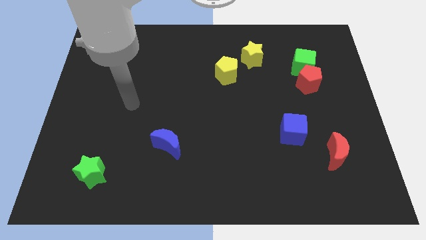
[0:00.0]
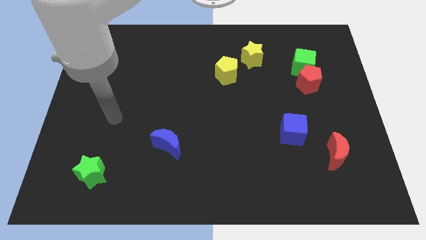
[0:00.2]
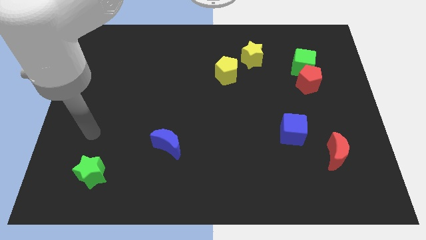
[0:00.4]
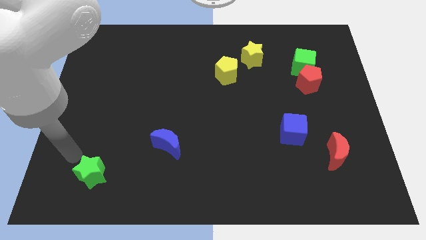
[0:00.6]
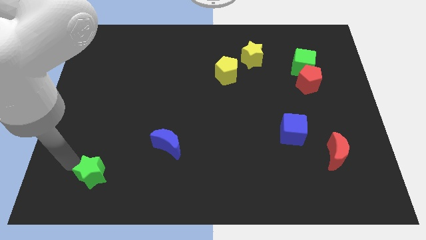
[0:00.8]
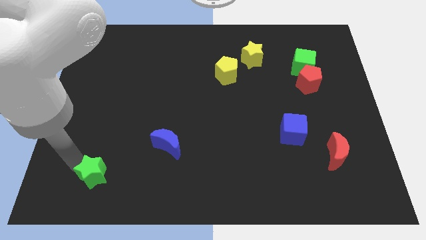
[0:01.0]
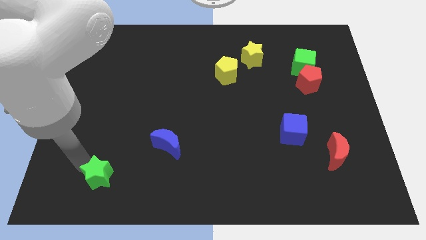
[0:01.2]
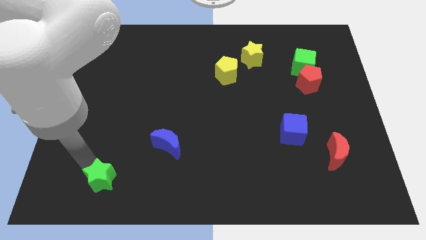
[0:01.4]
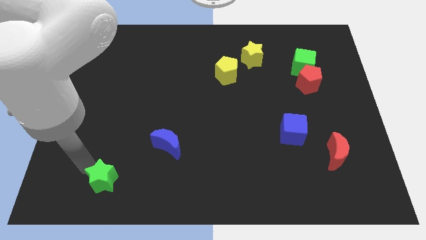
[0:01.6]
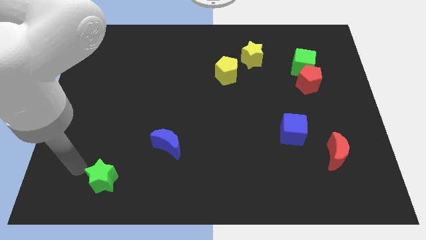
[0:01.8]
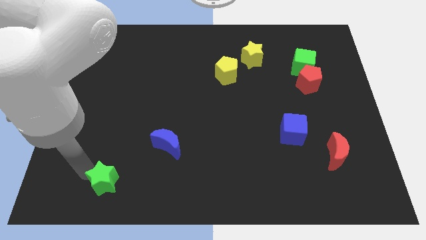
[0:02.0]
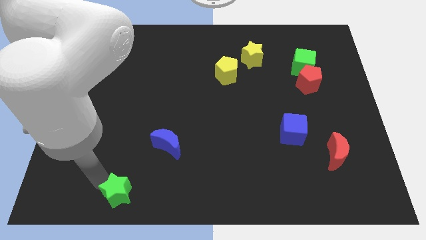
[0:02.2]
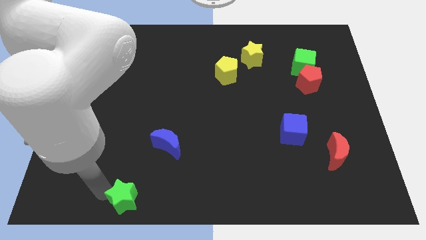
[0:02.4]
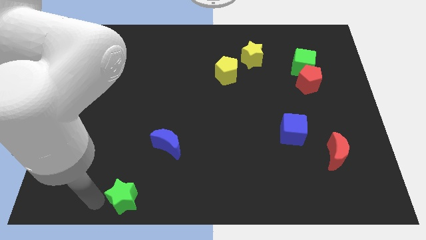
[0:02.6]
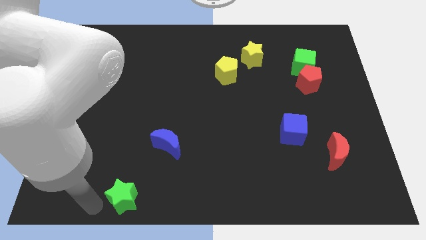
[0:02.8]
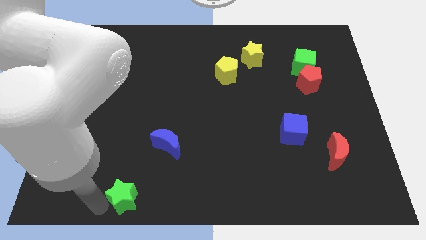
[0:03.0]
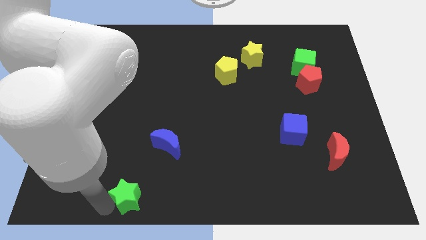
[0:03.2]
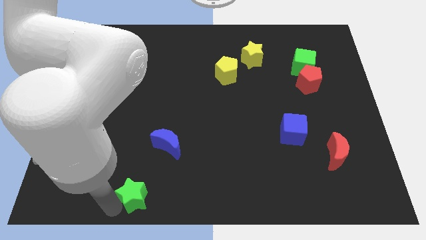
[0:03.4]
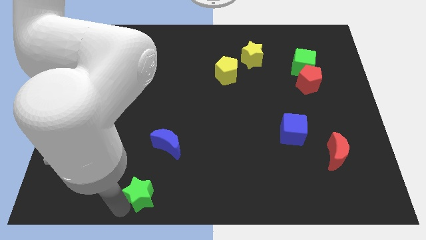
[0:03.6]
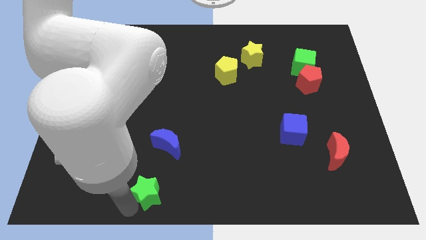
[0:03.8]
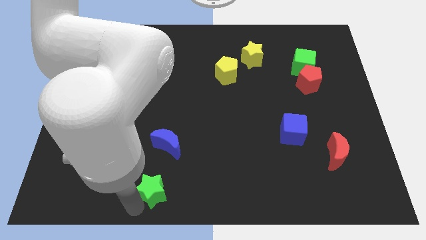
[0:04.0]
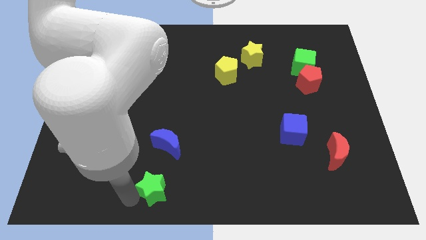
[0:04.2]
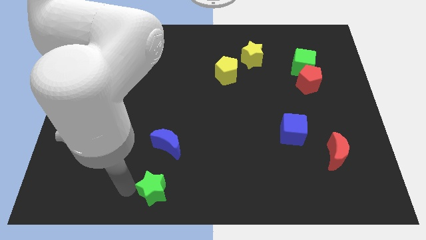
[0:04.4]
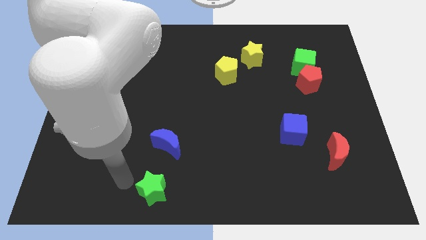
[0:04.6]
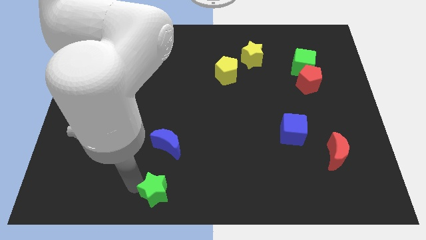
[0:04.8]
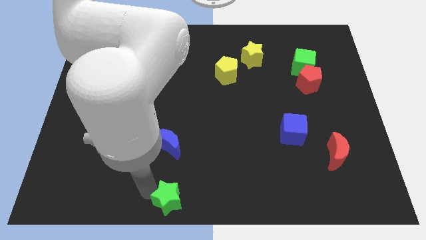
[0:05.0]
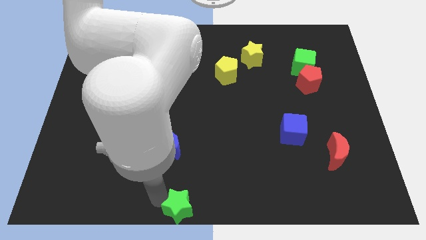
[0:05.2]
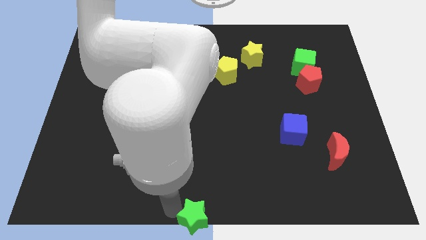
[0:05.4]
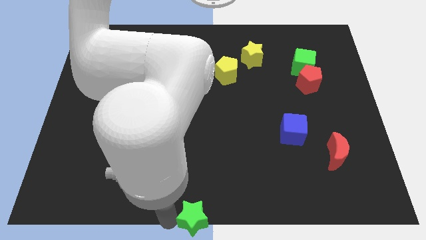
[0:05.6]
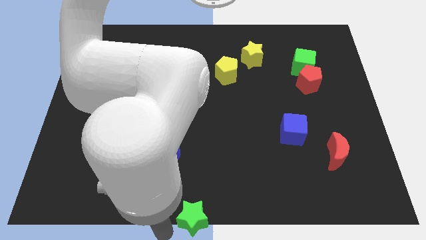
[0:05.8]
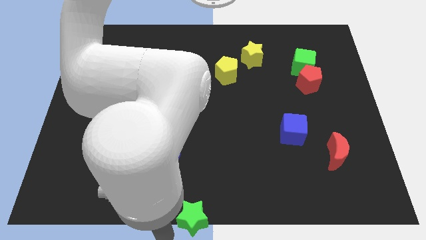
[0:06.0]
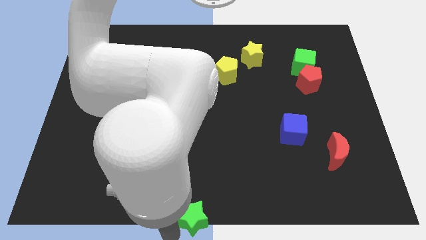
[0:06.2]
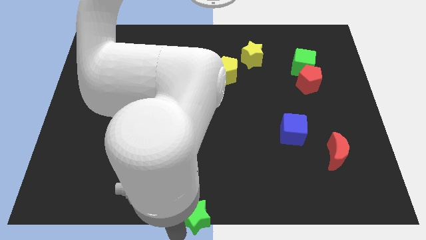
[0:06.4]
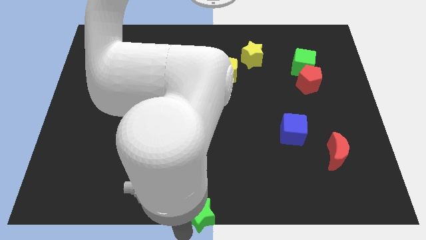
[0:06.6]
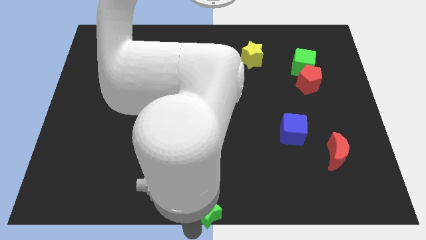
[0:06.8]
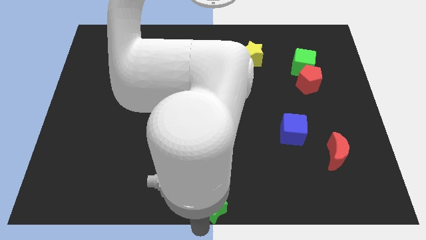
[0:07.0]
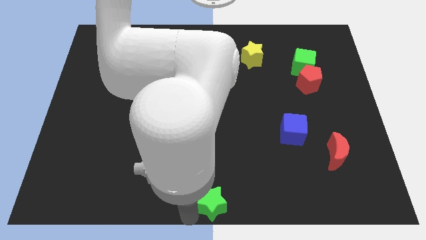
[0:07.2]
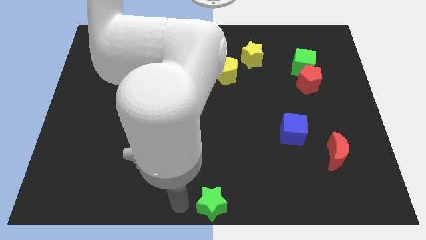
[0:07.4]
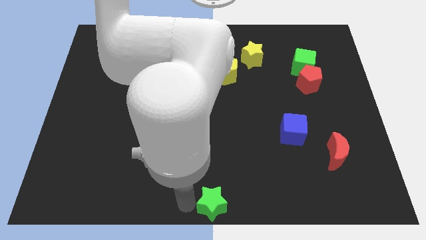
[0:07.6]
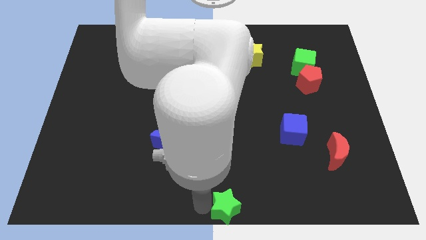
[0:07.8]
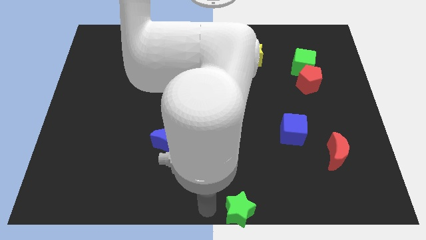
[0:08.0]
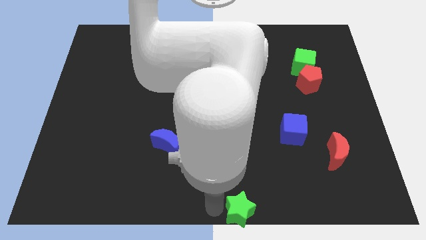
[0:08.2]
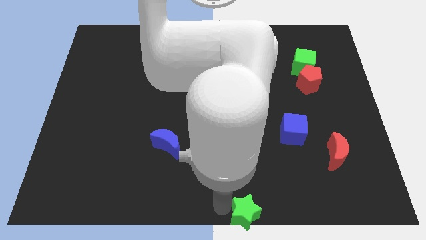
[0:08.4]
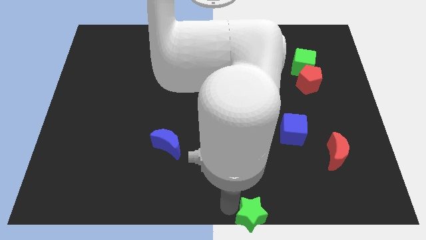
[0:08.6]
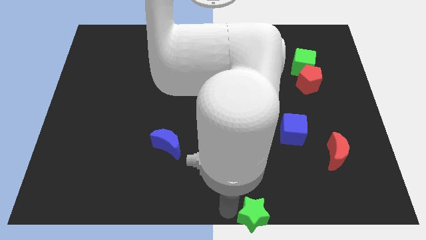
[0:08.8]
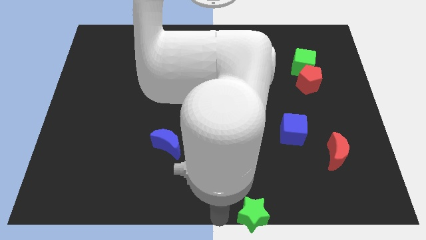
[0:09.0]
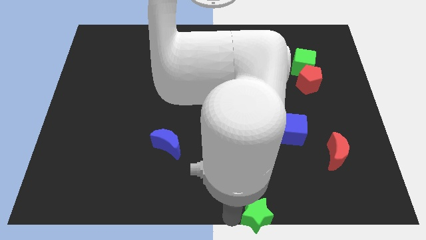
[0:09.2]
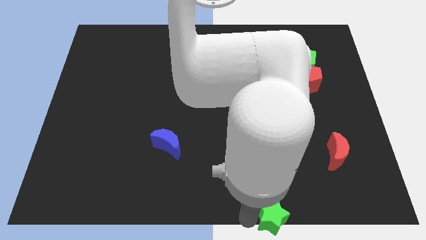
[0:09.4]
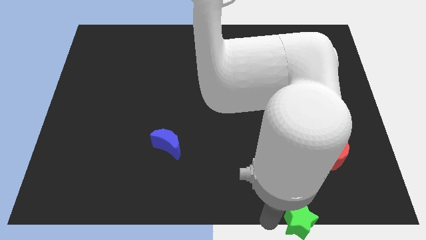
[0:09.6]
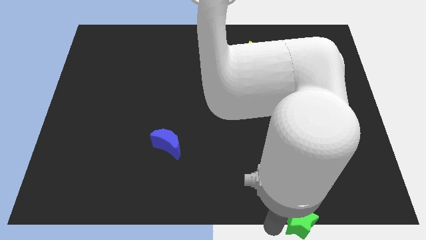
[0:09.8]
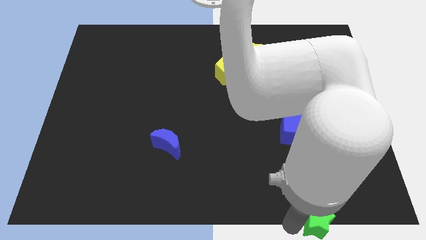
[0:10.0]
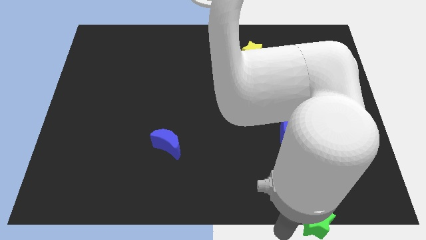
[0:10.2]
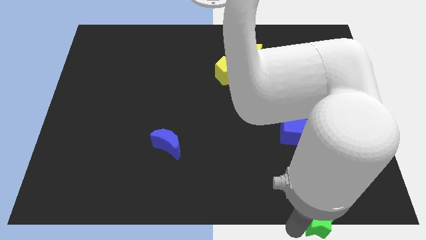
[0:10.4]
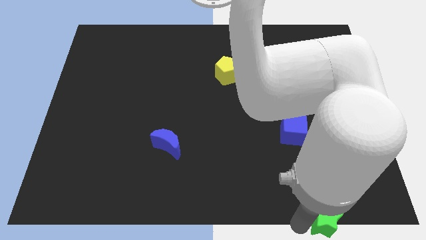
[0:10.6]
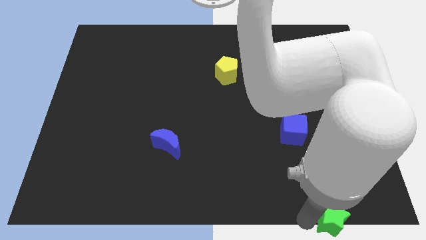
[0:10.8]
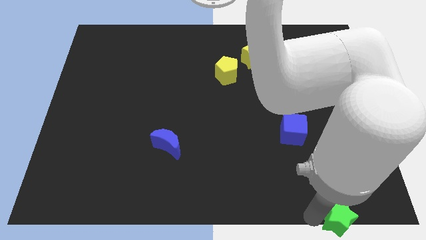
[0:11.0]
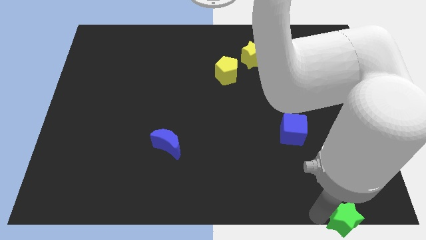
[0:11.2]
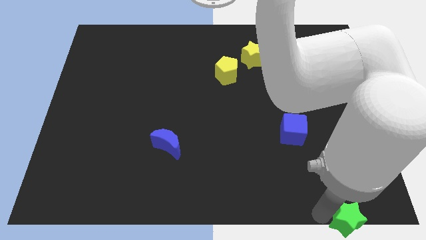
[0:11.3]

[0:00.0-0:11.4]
put the green star to the bottom right
